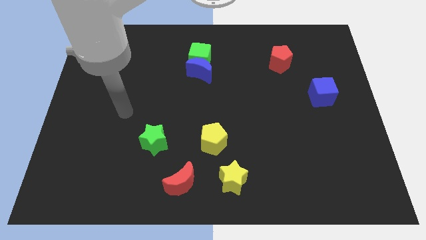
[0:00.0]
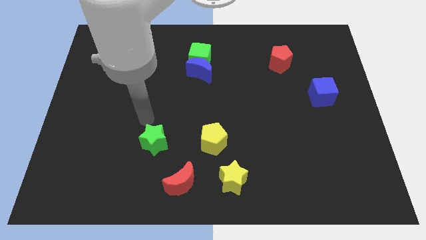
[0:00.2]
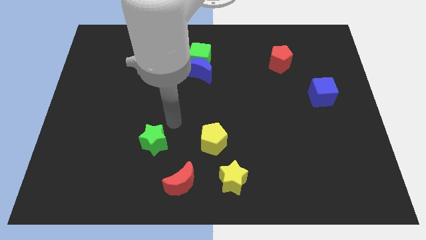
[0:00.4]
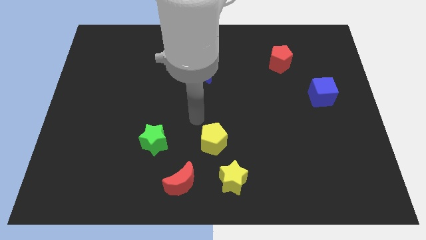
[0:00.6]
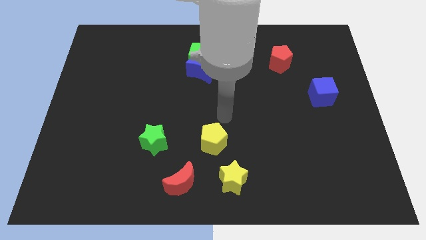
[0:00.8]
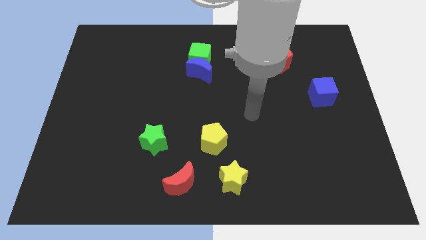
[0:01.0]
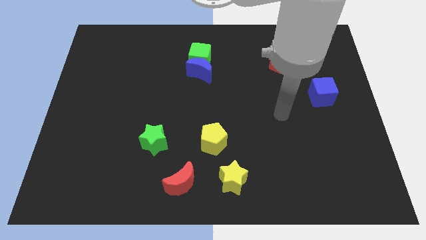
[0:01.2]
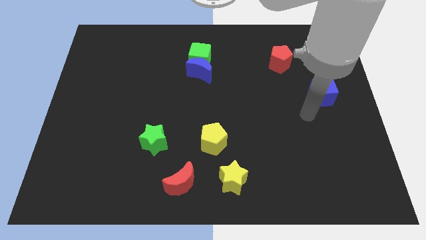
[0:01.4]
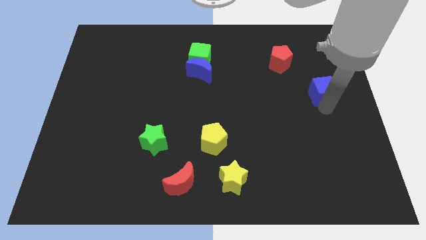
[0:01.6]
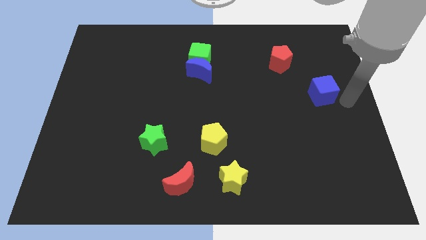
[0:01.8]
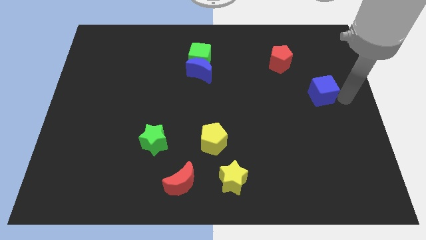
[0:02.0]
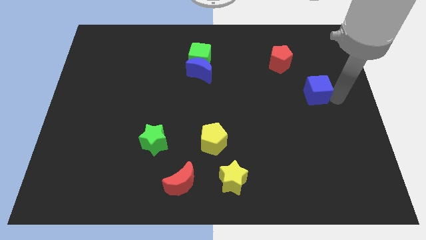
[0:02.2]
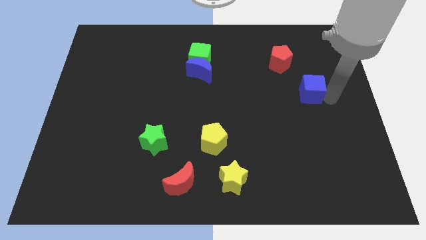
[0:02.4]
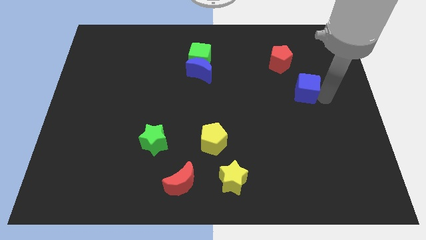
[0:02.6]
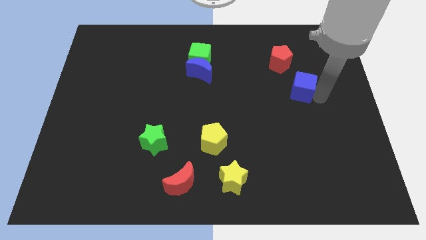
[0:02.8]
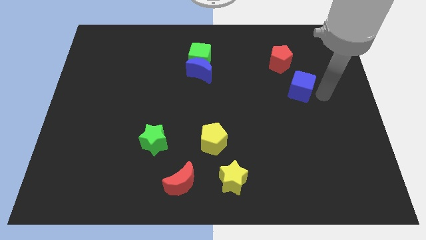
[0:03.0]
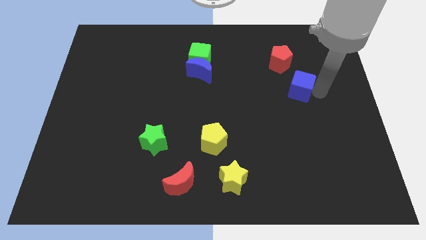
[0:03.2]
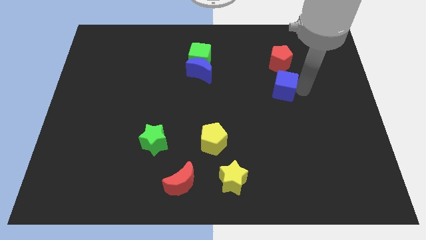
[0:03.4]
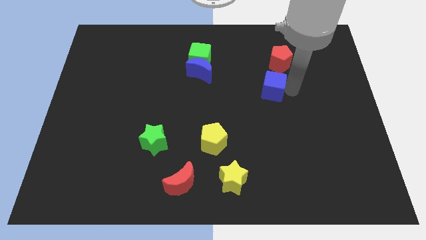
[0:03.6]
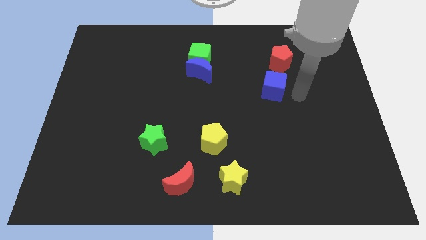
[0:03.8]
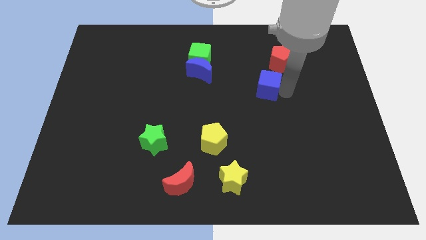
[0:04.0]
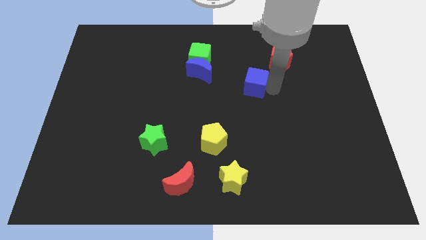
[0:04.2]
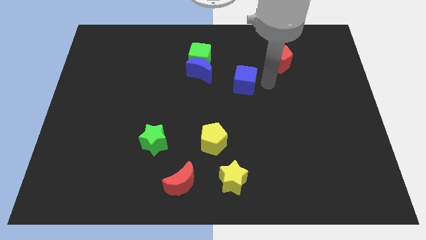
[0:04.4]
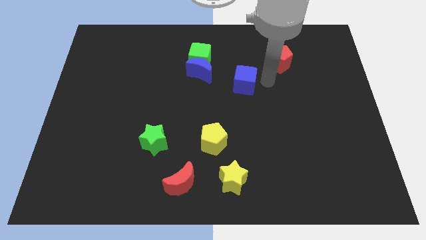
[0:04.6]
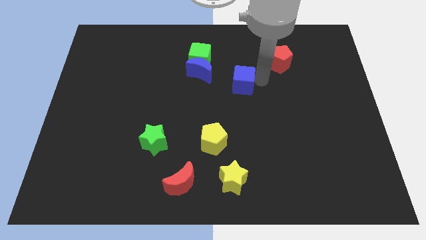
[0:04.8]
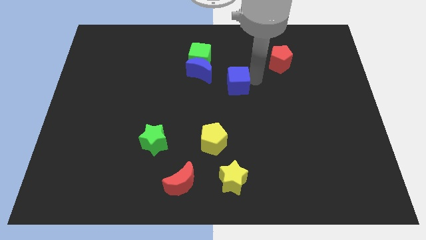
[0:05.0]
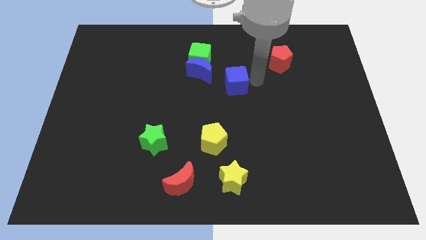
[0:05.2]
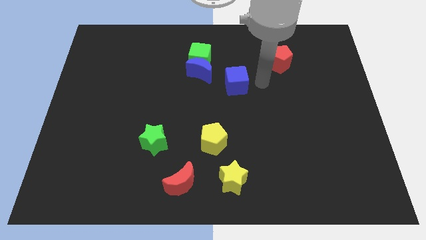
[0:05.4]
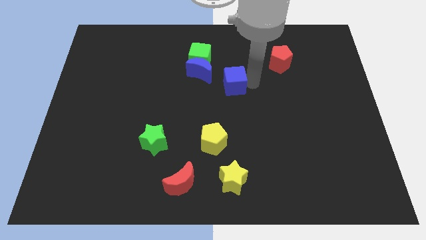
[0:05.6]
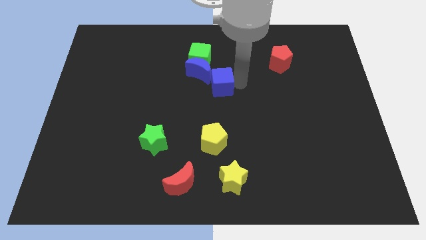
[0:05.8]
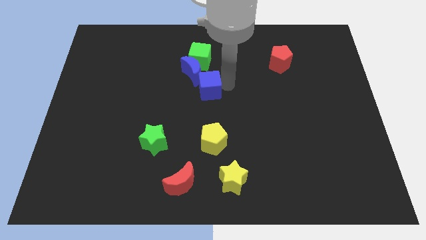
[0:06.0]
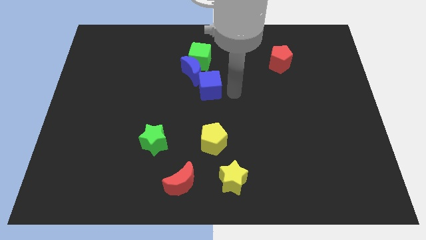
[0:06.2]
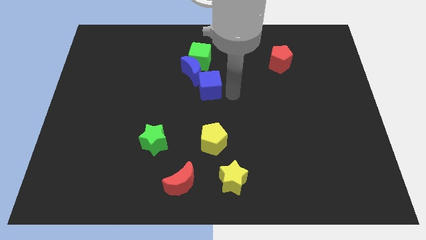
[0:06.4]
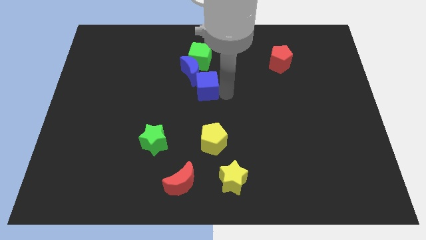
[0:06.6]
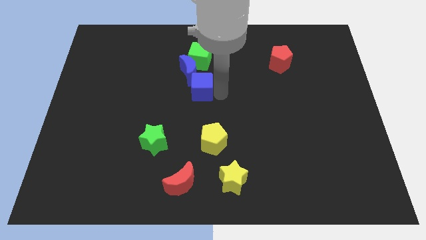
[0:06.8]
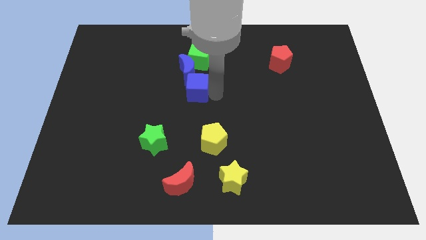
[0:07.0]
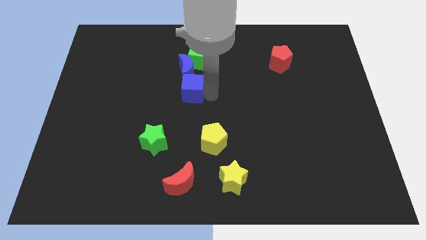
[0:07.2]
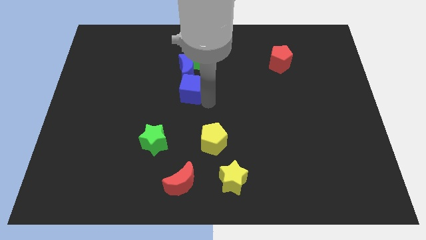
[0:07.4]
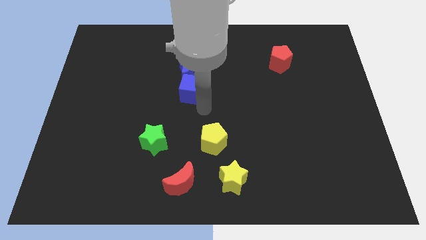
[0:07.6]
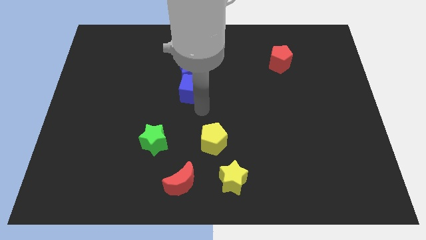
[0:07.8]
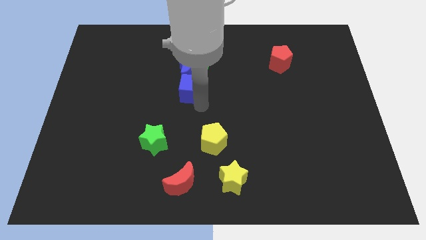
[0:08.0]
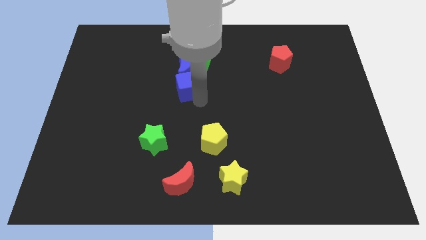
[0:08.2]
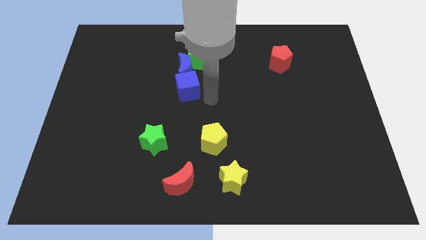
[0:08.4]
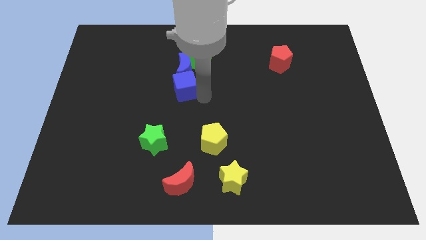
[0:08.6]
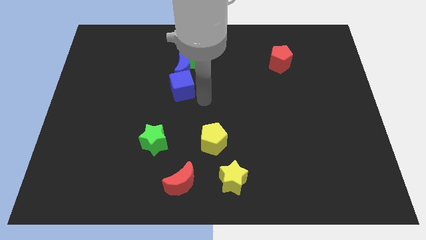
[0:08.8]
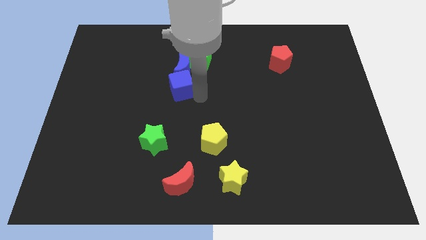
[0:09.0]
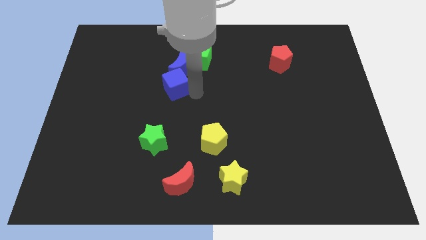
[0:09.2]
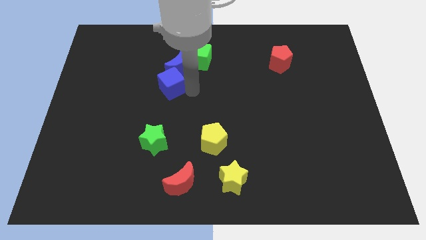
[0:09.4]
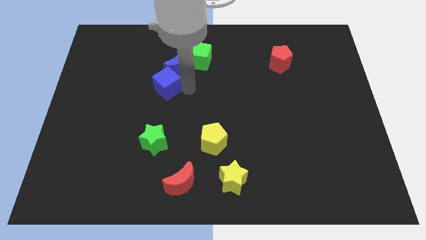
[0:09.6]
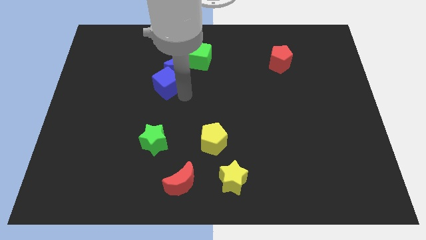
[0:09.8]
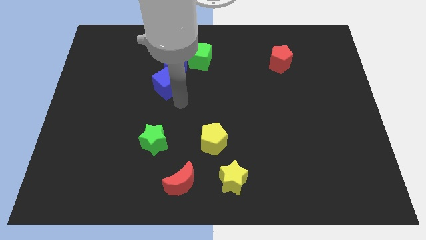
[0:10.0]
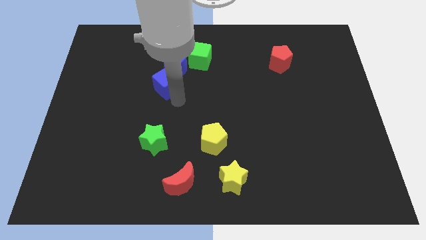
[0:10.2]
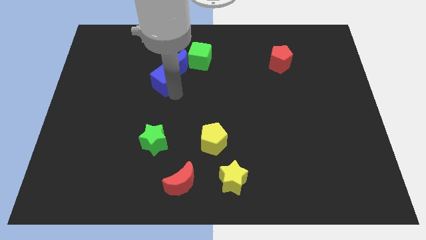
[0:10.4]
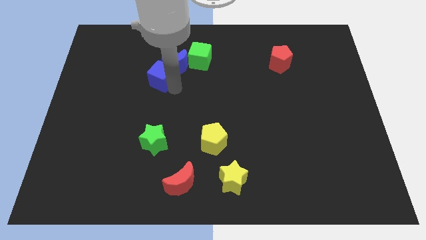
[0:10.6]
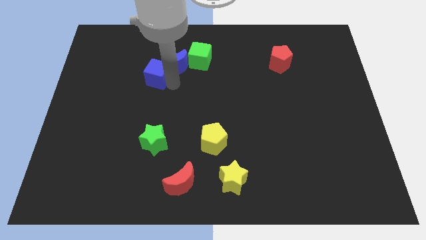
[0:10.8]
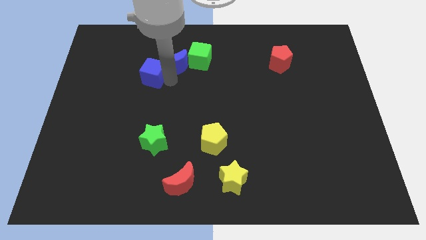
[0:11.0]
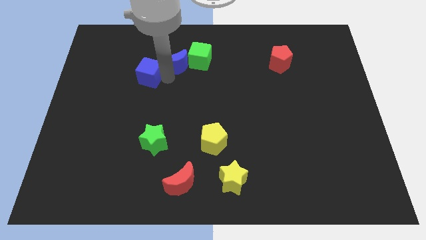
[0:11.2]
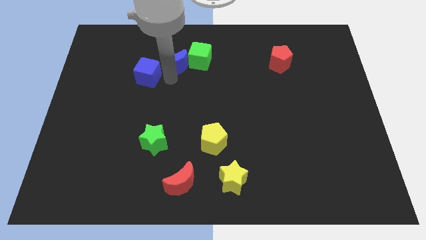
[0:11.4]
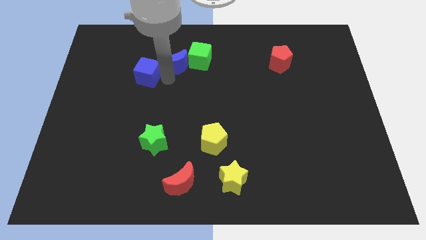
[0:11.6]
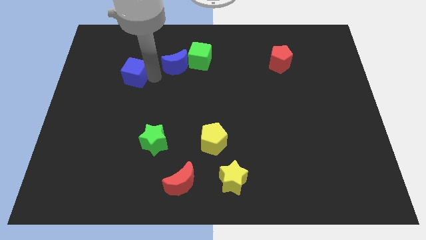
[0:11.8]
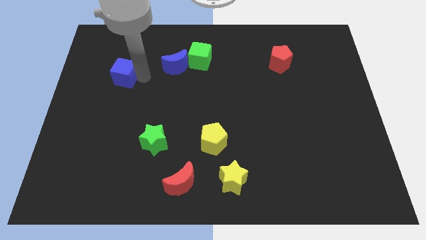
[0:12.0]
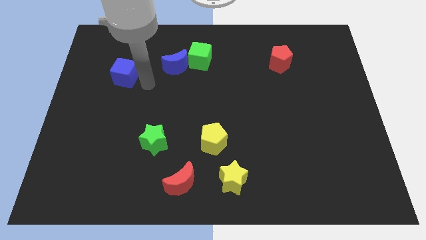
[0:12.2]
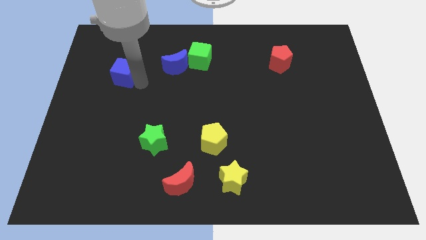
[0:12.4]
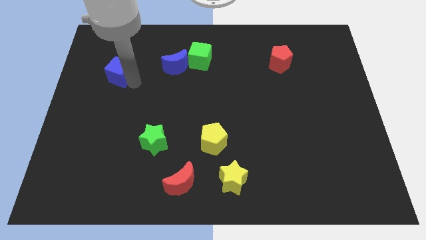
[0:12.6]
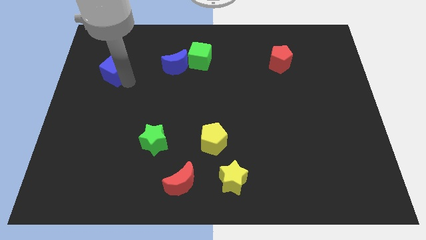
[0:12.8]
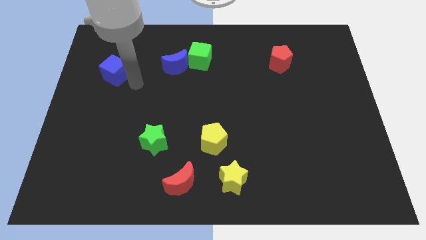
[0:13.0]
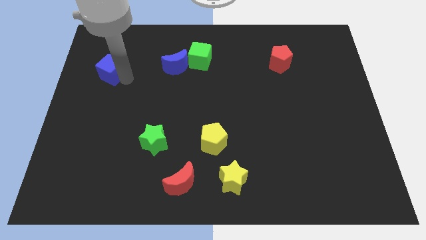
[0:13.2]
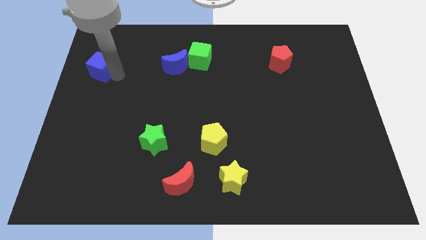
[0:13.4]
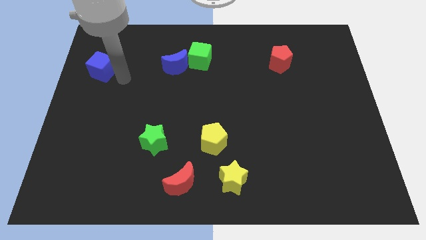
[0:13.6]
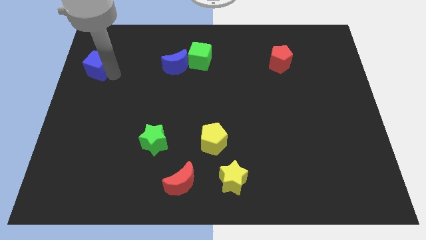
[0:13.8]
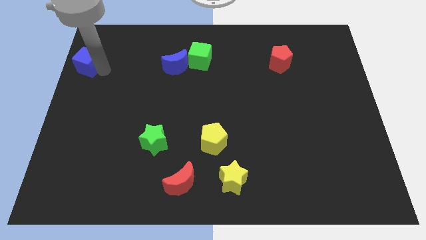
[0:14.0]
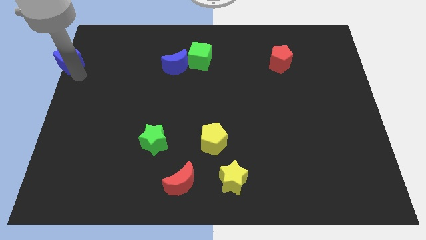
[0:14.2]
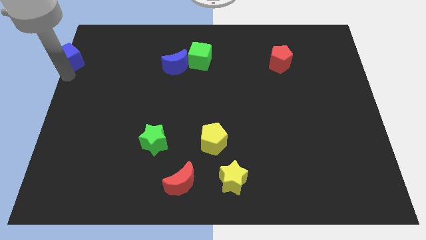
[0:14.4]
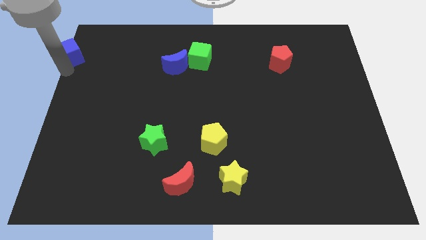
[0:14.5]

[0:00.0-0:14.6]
put the blue cube to the top left of the board
